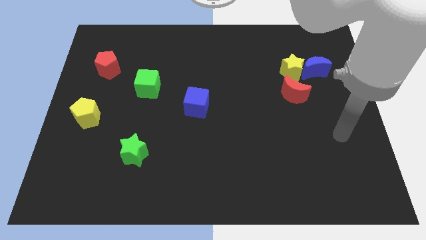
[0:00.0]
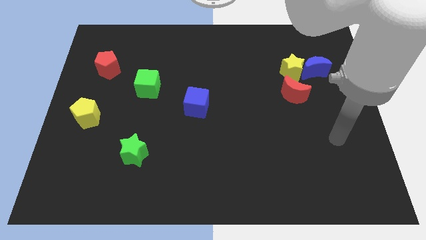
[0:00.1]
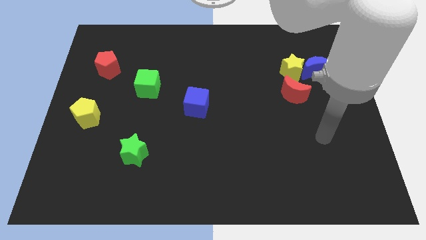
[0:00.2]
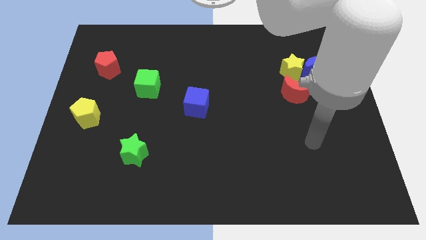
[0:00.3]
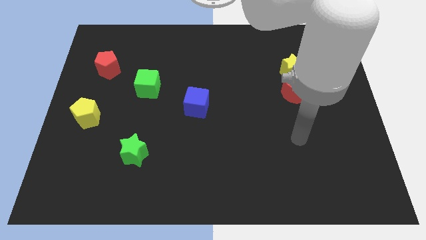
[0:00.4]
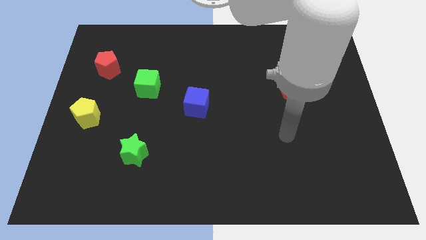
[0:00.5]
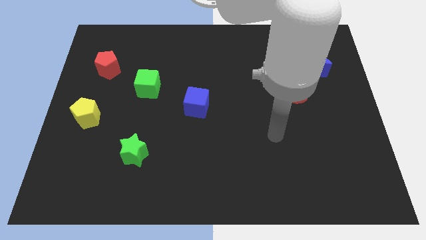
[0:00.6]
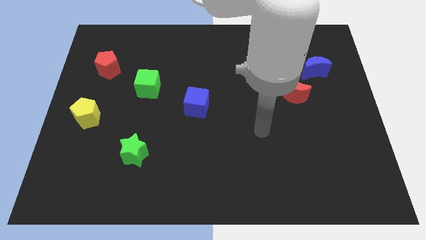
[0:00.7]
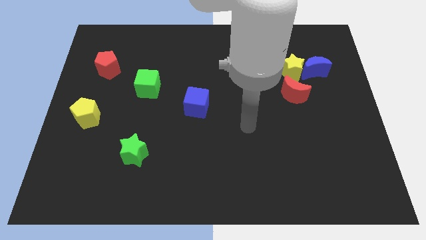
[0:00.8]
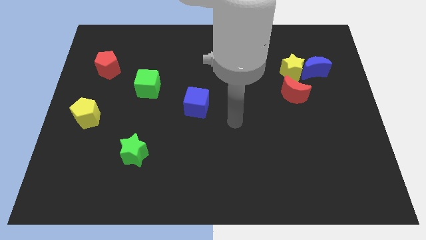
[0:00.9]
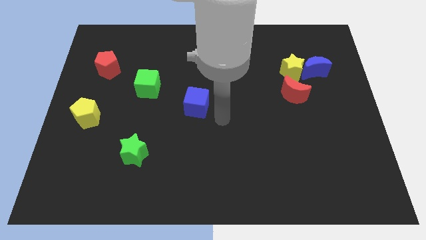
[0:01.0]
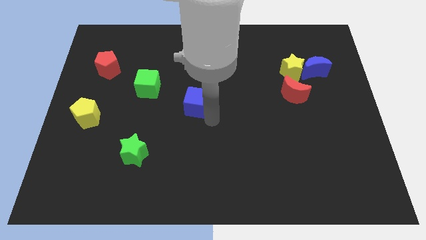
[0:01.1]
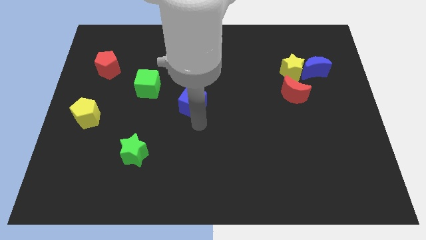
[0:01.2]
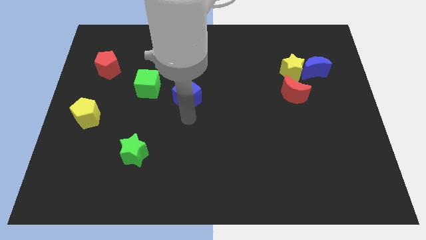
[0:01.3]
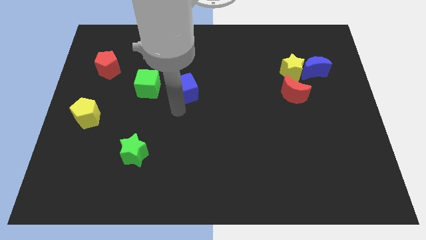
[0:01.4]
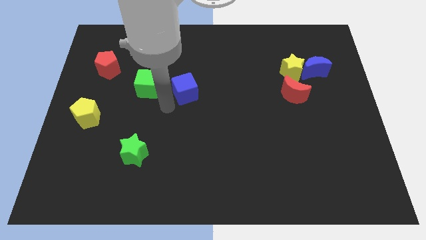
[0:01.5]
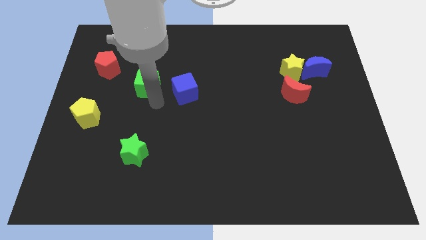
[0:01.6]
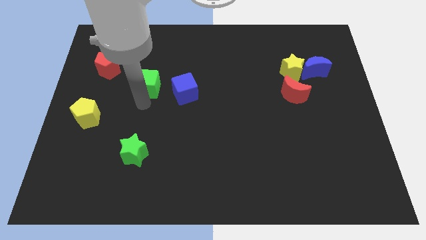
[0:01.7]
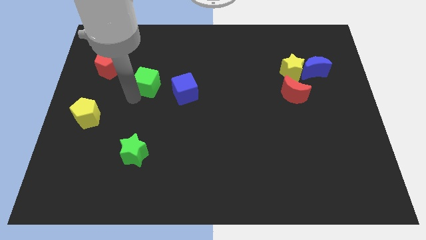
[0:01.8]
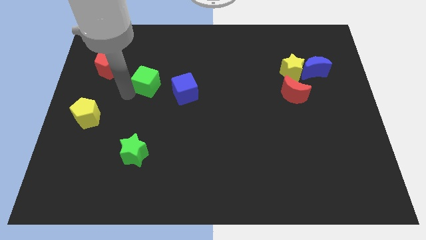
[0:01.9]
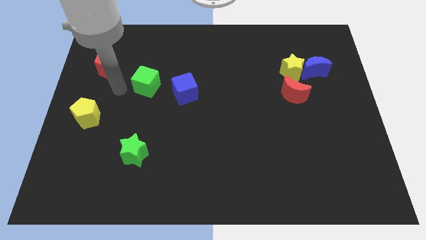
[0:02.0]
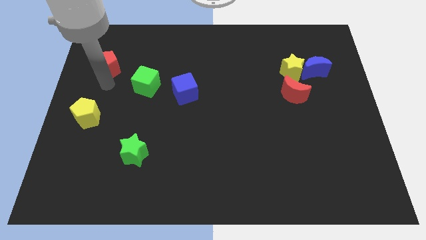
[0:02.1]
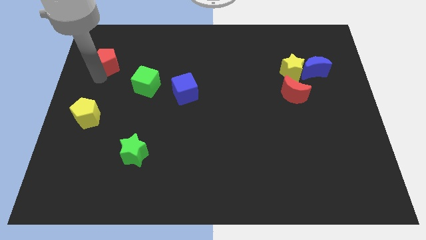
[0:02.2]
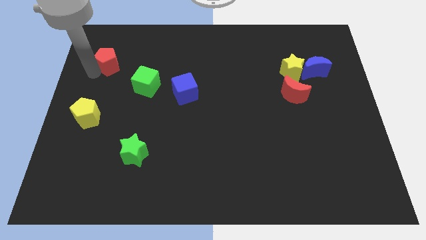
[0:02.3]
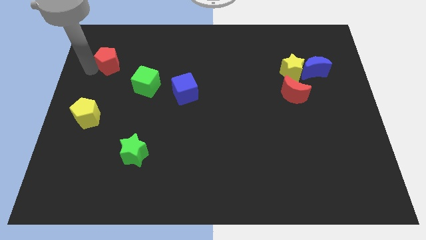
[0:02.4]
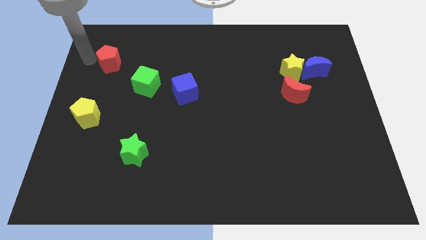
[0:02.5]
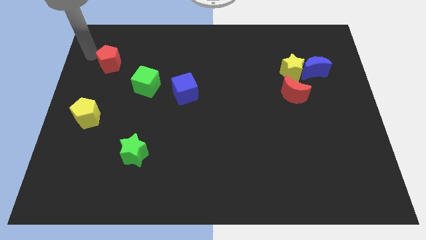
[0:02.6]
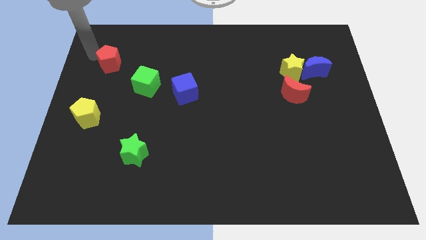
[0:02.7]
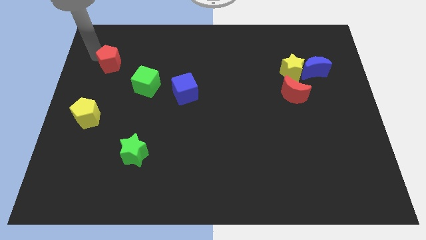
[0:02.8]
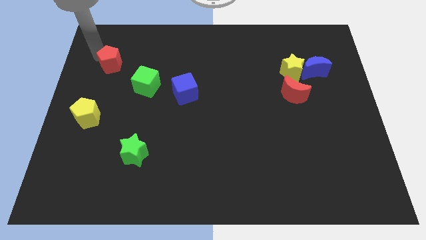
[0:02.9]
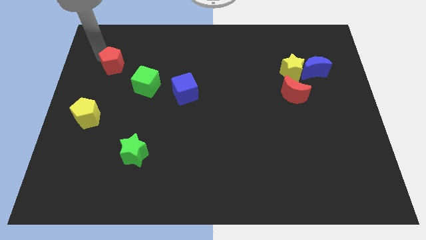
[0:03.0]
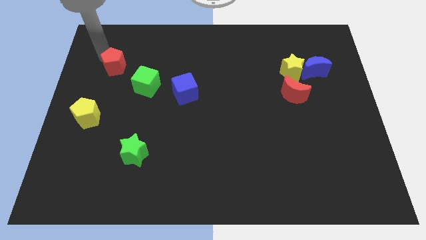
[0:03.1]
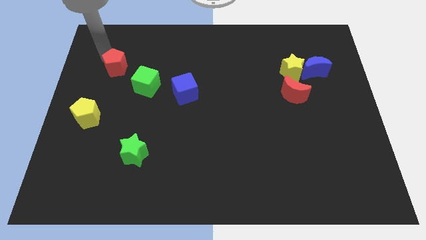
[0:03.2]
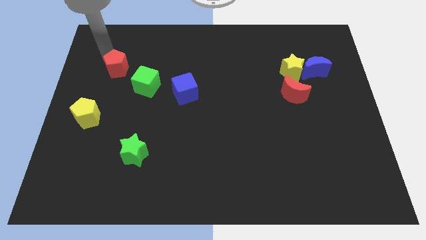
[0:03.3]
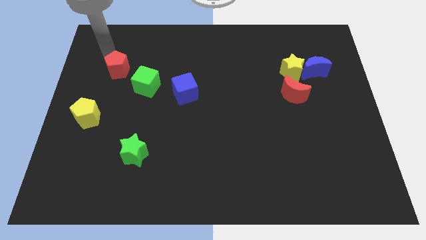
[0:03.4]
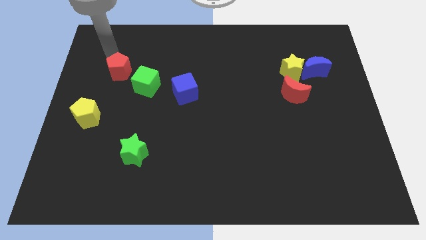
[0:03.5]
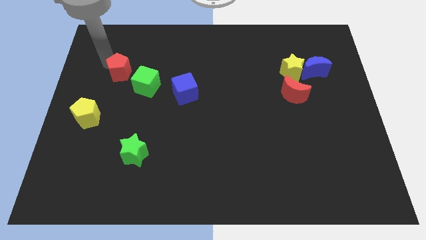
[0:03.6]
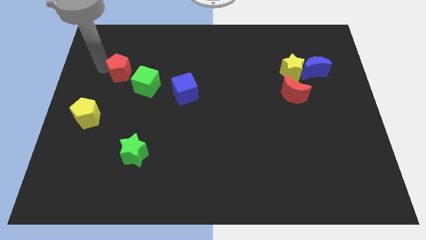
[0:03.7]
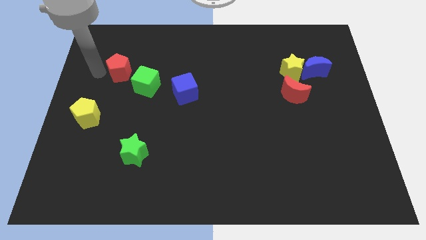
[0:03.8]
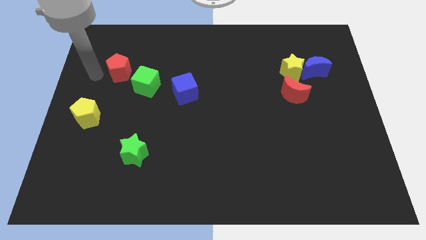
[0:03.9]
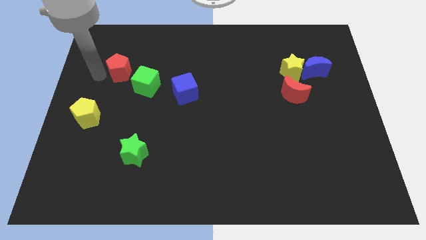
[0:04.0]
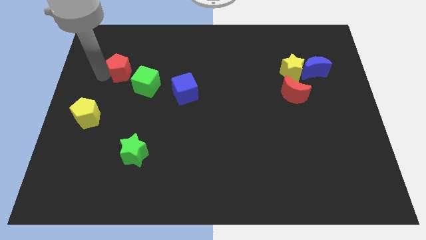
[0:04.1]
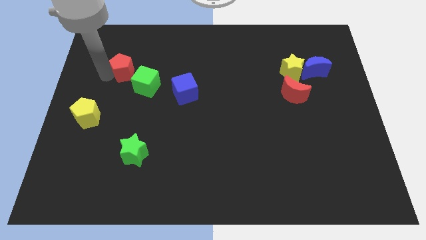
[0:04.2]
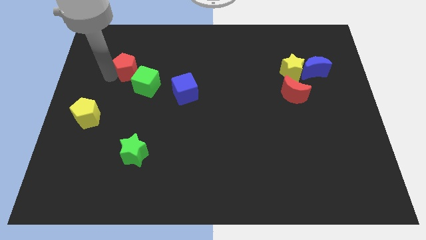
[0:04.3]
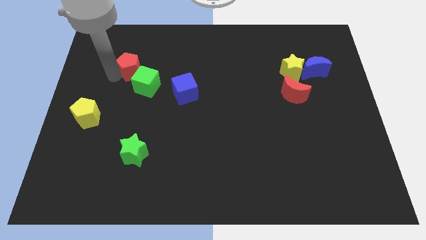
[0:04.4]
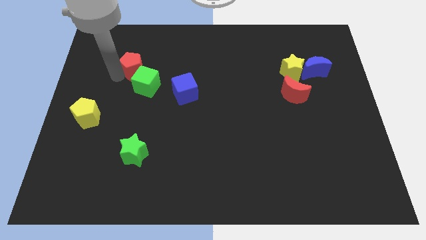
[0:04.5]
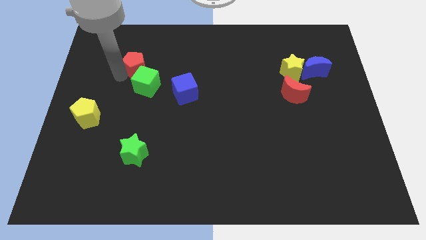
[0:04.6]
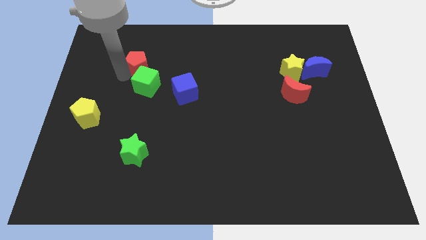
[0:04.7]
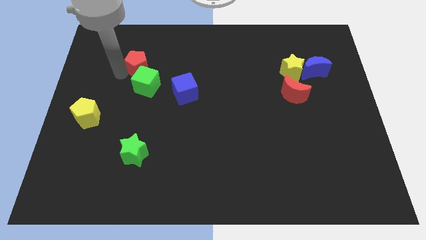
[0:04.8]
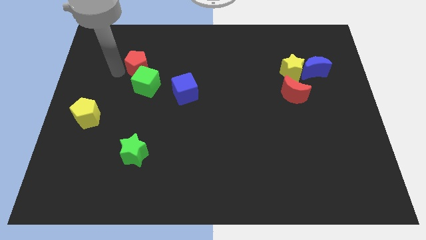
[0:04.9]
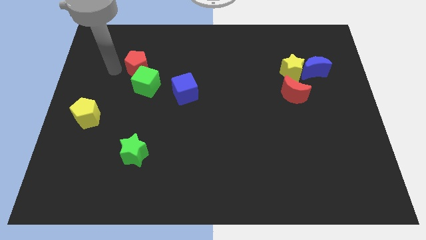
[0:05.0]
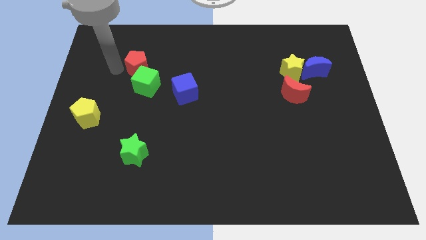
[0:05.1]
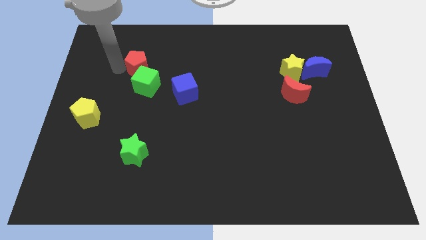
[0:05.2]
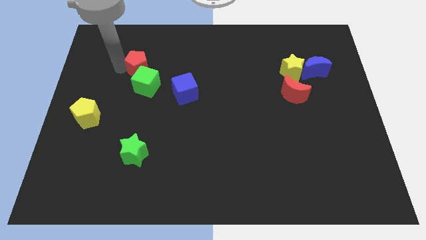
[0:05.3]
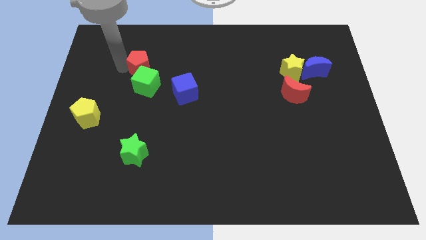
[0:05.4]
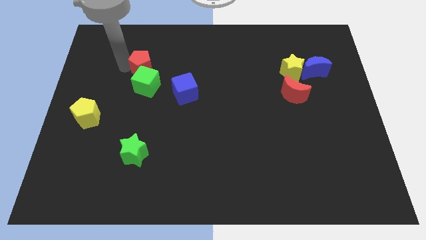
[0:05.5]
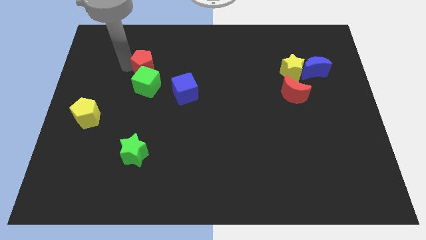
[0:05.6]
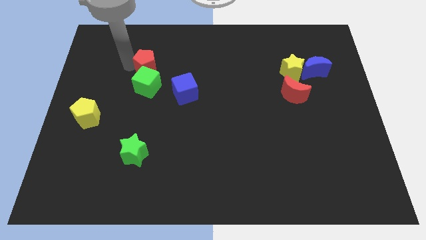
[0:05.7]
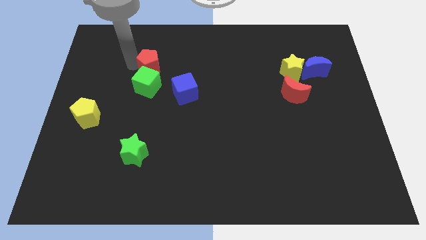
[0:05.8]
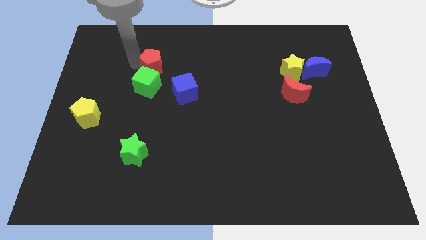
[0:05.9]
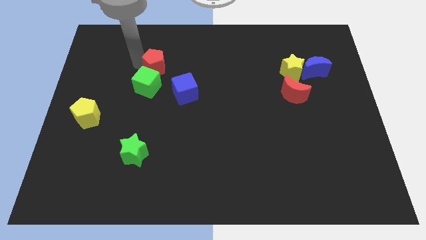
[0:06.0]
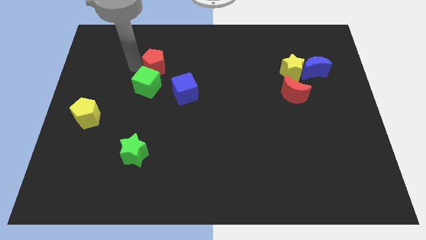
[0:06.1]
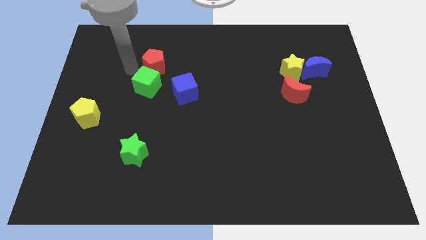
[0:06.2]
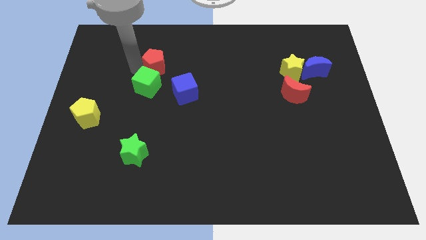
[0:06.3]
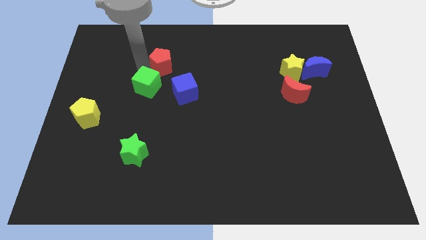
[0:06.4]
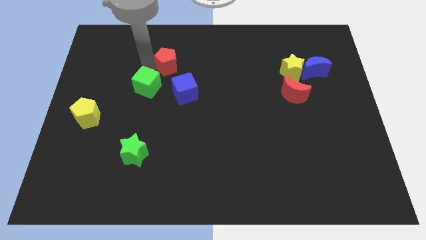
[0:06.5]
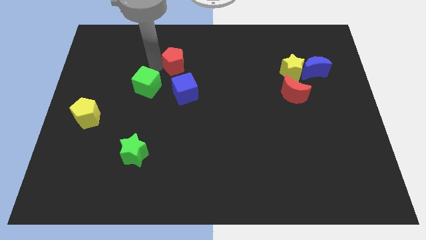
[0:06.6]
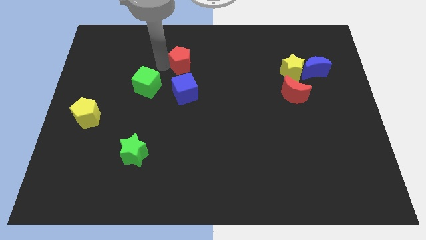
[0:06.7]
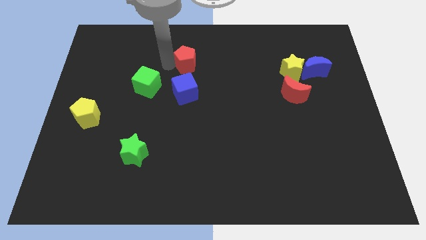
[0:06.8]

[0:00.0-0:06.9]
push the red pentagon to the right

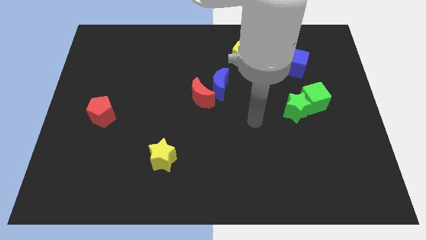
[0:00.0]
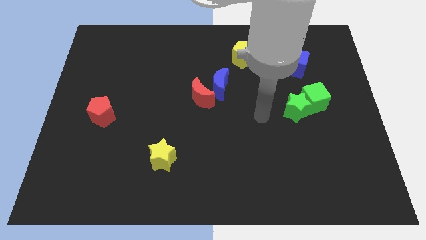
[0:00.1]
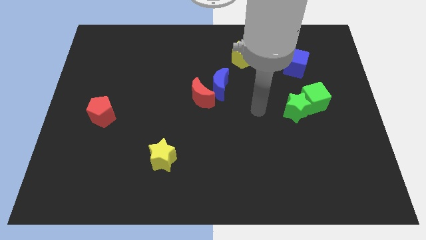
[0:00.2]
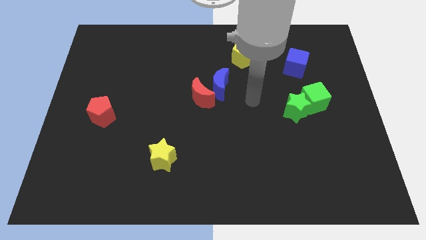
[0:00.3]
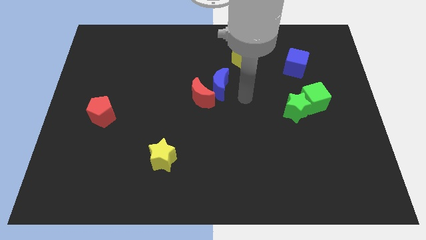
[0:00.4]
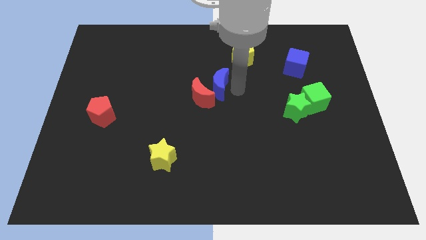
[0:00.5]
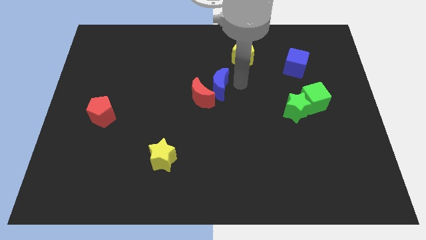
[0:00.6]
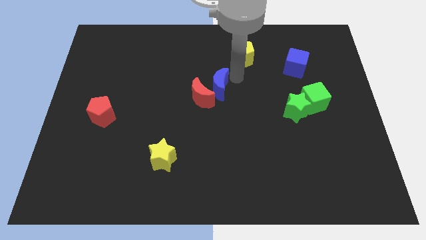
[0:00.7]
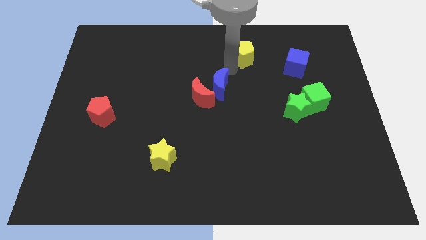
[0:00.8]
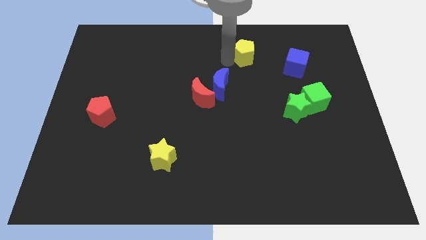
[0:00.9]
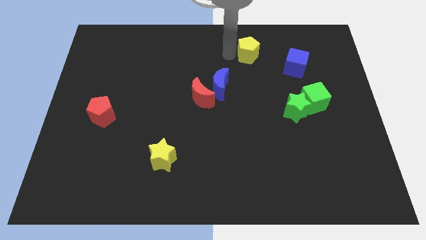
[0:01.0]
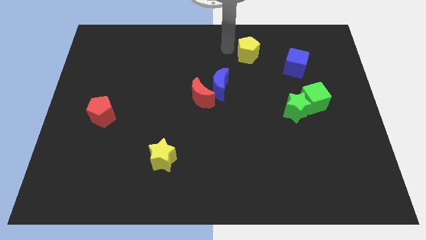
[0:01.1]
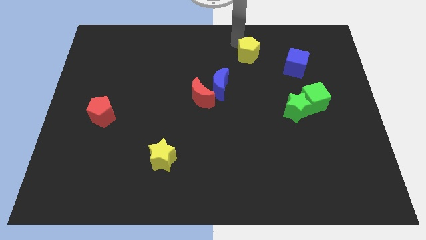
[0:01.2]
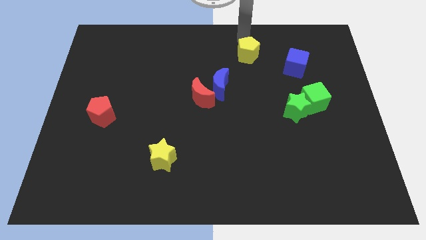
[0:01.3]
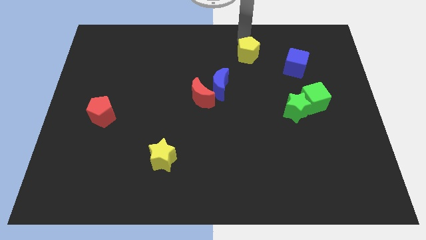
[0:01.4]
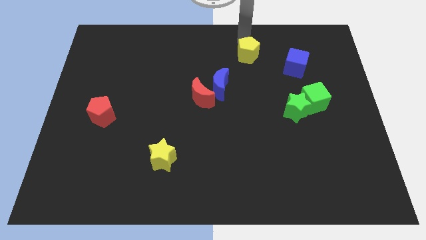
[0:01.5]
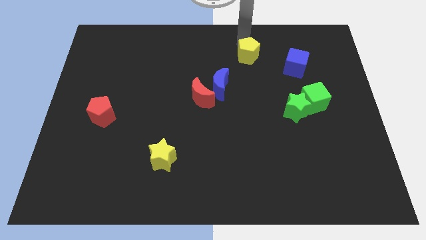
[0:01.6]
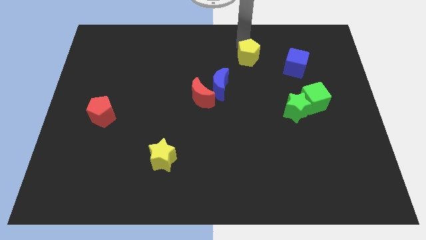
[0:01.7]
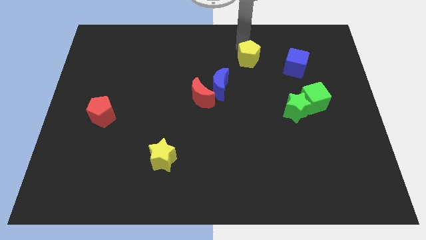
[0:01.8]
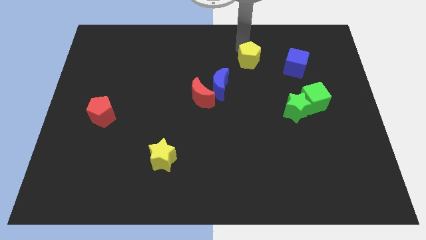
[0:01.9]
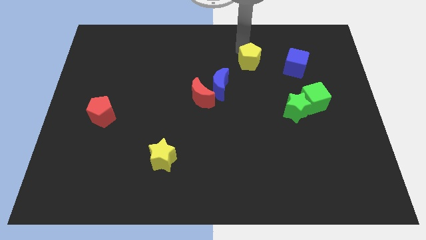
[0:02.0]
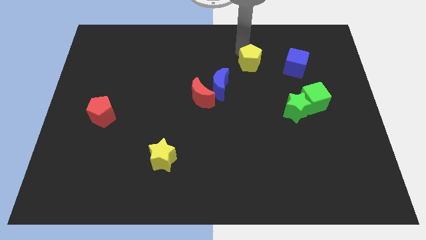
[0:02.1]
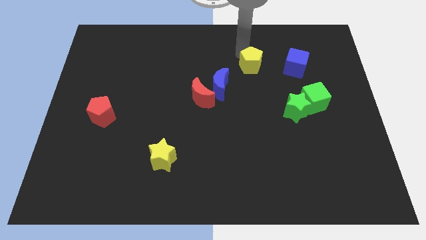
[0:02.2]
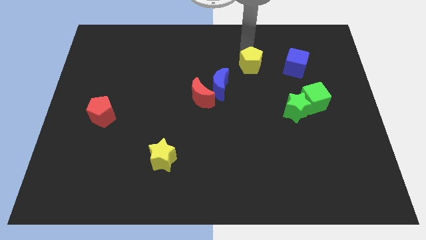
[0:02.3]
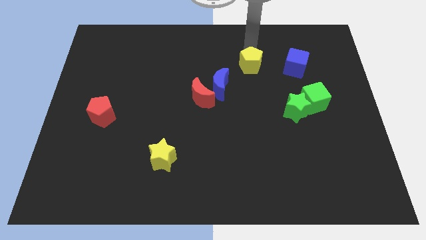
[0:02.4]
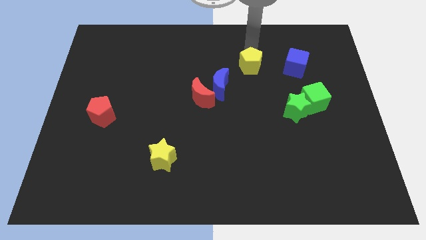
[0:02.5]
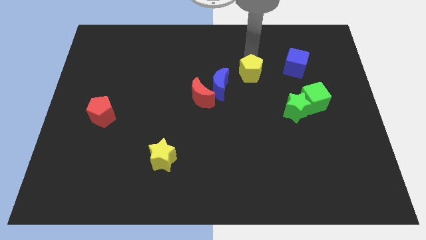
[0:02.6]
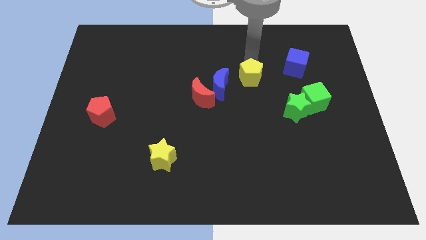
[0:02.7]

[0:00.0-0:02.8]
slightly slide the yellow pentagon down
